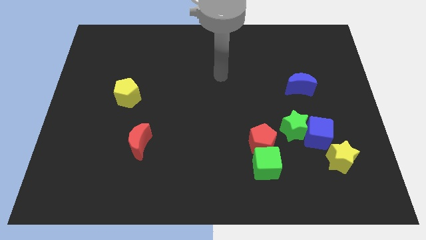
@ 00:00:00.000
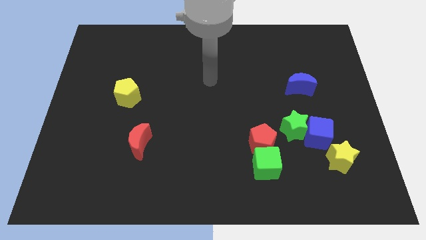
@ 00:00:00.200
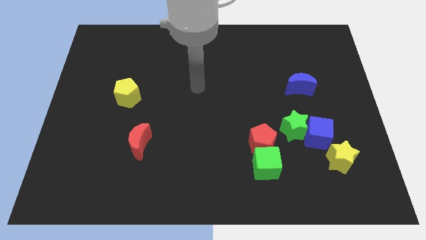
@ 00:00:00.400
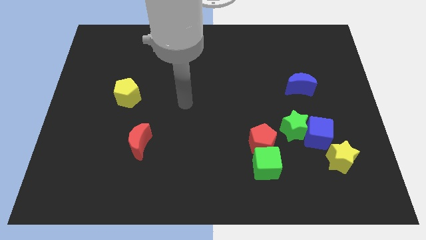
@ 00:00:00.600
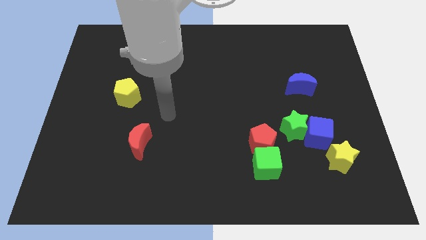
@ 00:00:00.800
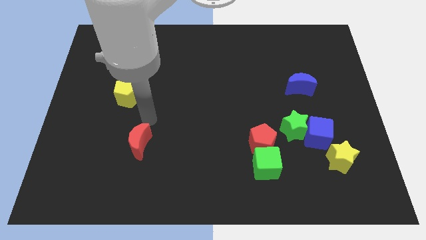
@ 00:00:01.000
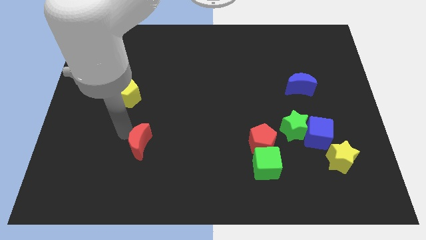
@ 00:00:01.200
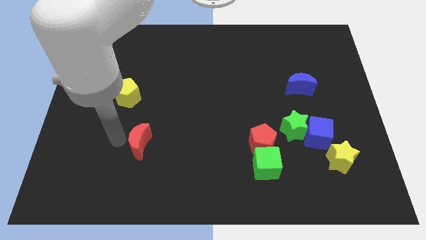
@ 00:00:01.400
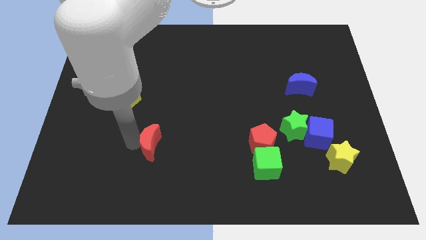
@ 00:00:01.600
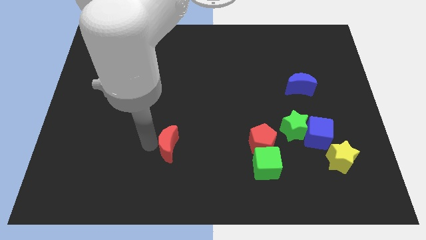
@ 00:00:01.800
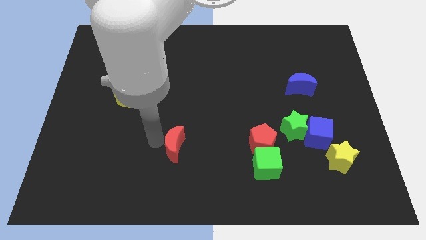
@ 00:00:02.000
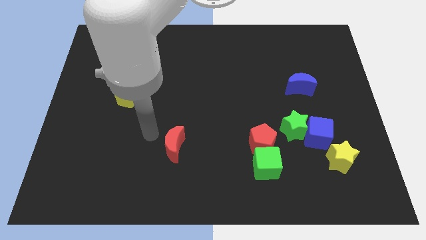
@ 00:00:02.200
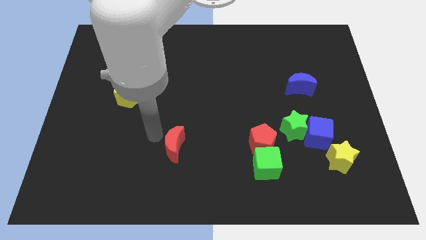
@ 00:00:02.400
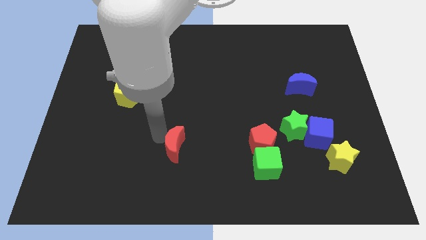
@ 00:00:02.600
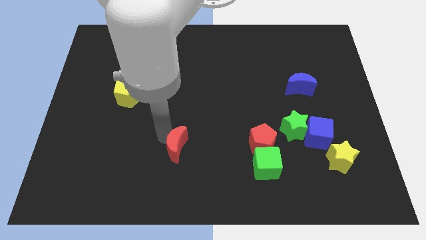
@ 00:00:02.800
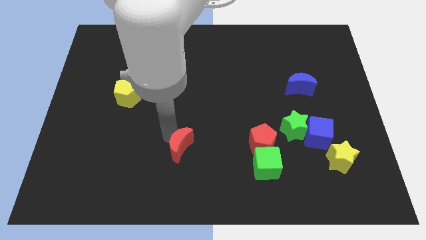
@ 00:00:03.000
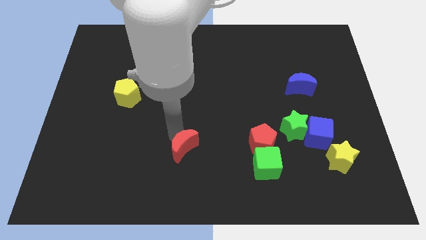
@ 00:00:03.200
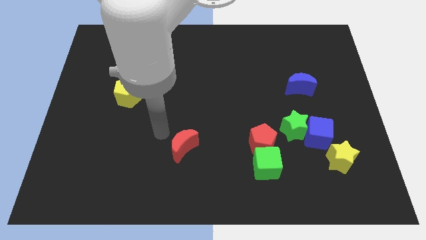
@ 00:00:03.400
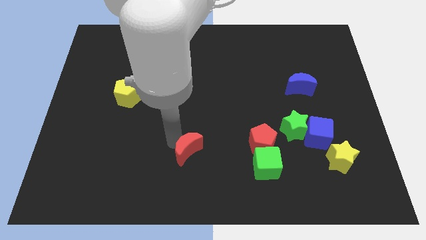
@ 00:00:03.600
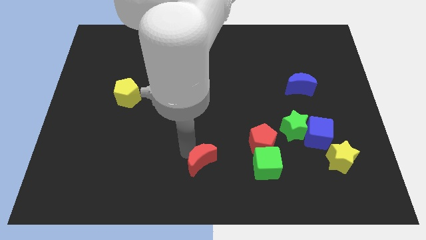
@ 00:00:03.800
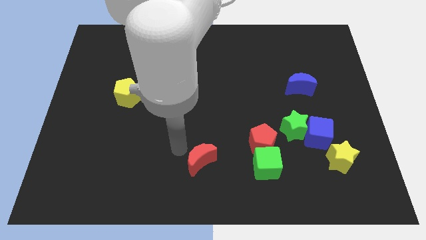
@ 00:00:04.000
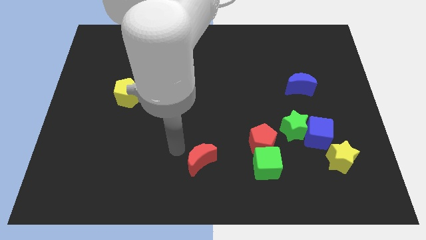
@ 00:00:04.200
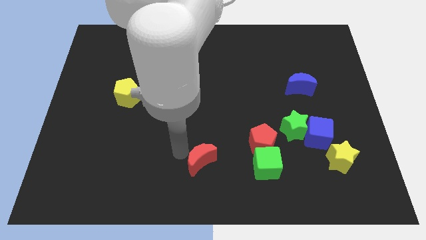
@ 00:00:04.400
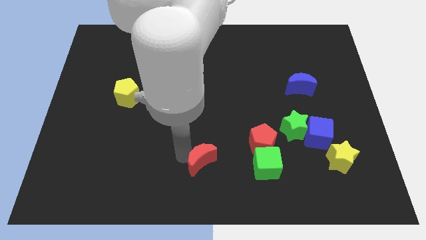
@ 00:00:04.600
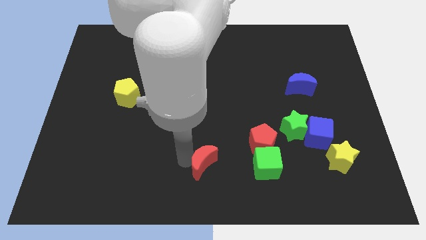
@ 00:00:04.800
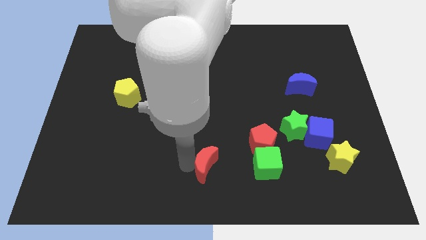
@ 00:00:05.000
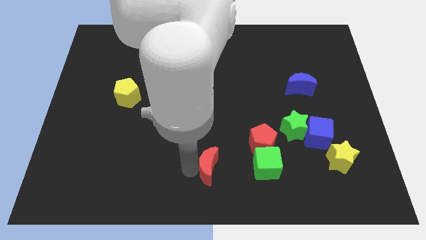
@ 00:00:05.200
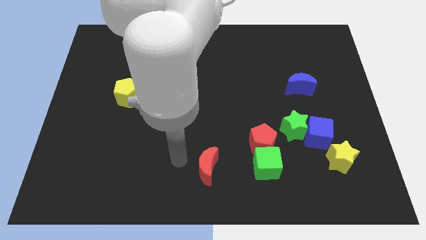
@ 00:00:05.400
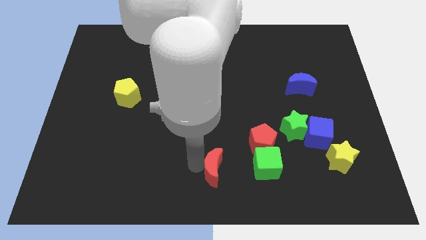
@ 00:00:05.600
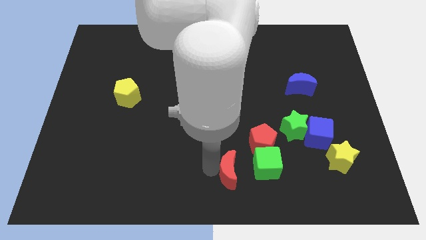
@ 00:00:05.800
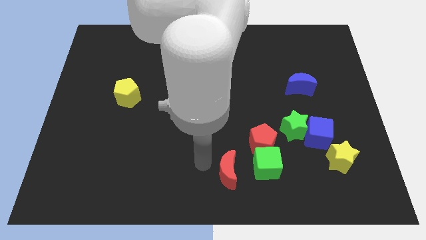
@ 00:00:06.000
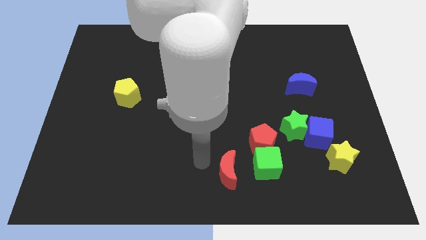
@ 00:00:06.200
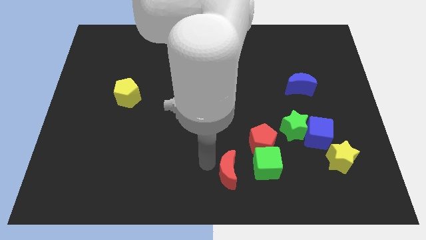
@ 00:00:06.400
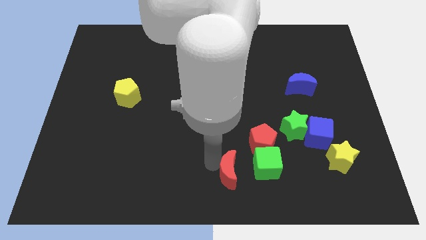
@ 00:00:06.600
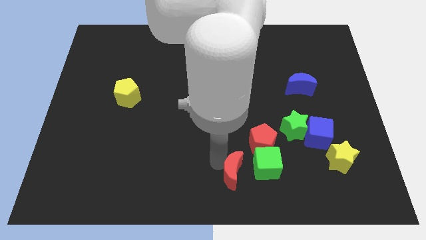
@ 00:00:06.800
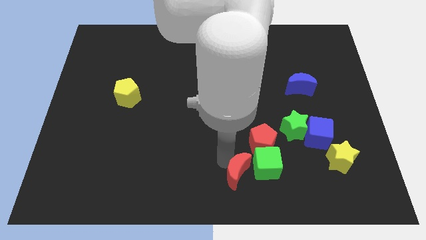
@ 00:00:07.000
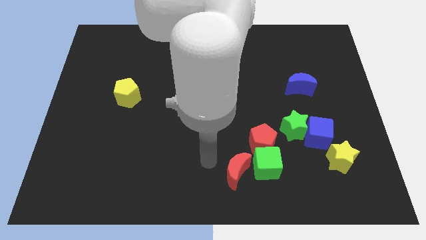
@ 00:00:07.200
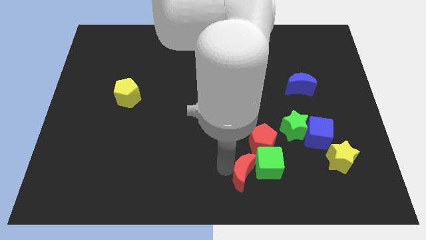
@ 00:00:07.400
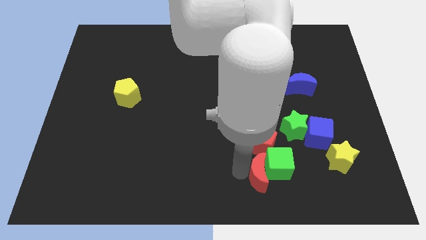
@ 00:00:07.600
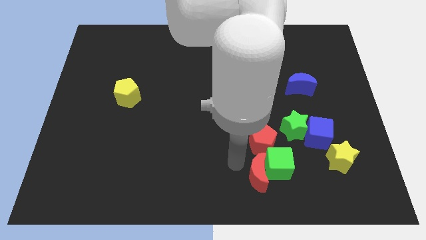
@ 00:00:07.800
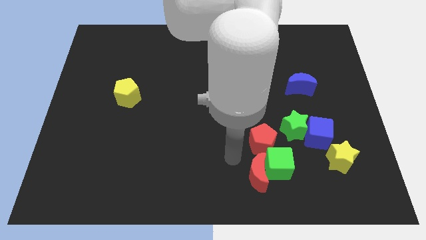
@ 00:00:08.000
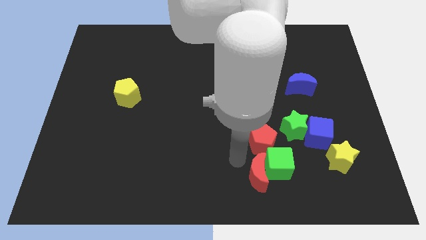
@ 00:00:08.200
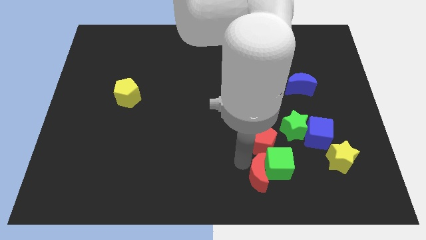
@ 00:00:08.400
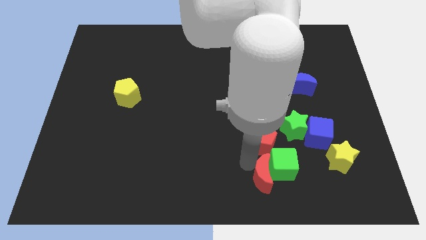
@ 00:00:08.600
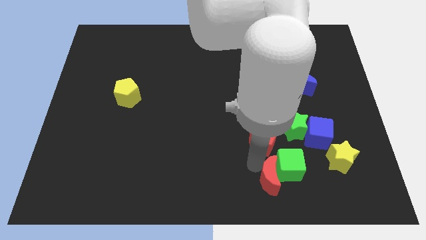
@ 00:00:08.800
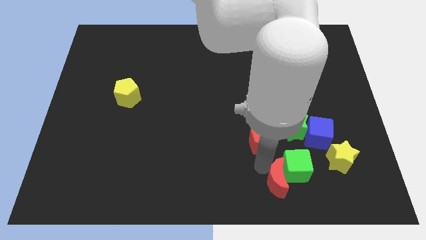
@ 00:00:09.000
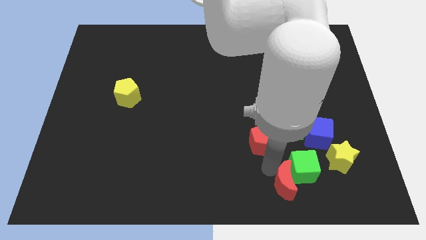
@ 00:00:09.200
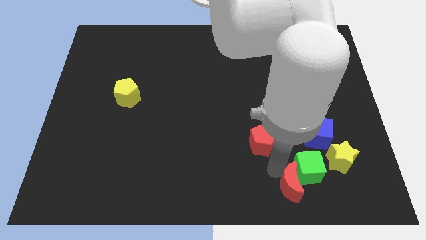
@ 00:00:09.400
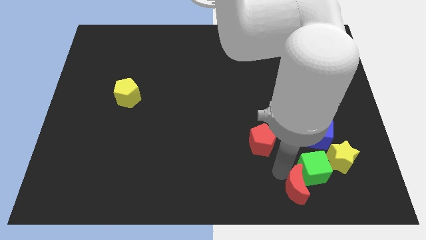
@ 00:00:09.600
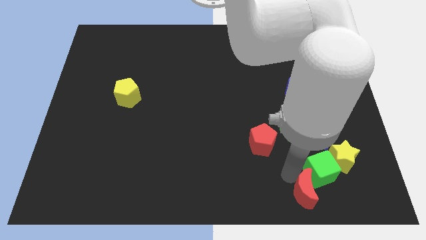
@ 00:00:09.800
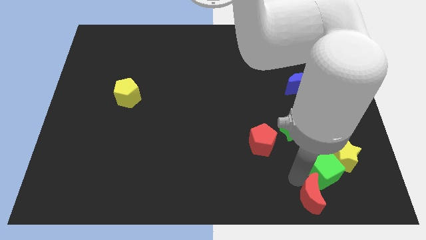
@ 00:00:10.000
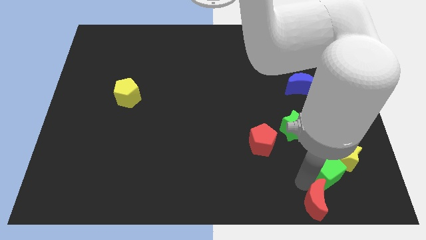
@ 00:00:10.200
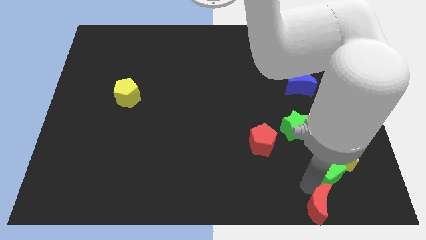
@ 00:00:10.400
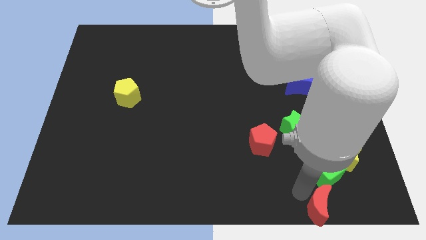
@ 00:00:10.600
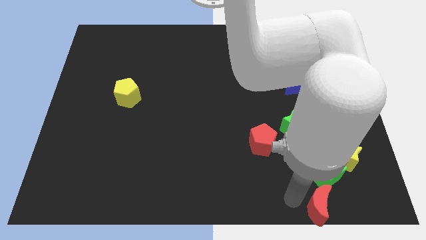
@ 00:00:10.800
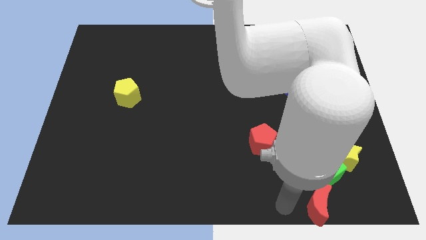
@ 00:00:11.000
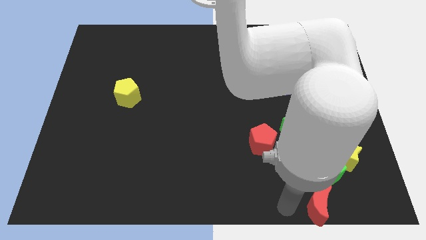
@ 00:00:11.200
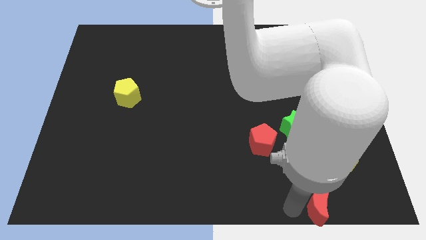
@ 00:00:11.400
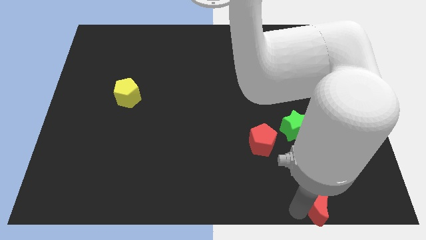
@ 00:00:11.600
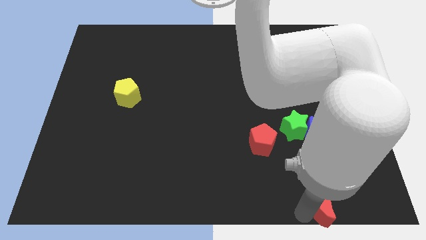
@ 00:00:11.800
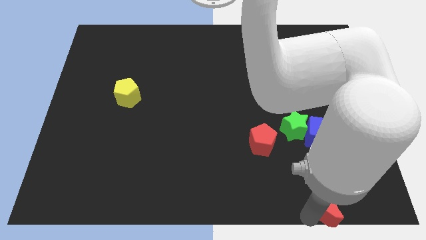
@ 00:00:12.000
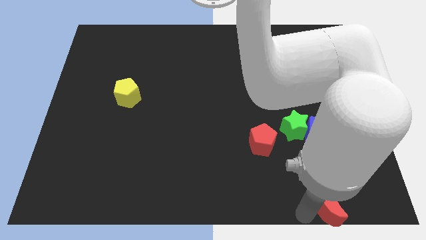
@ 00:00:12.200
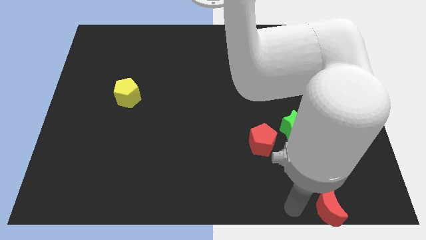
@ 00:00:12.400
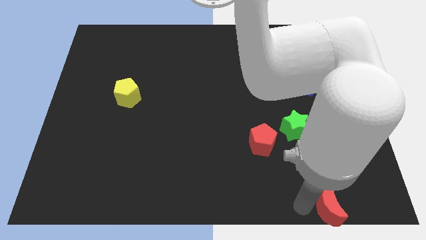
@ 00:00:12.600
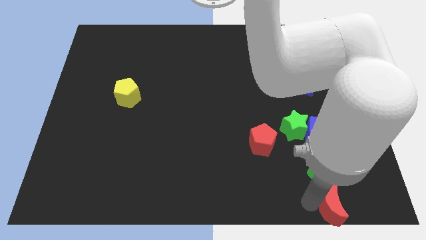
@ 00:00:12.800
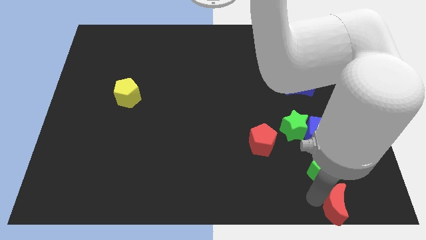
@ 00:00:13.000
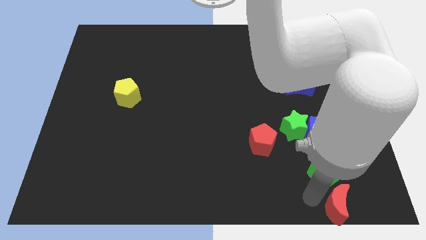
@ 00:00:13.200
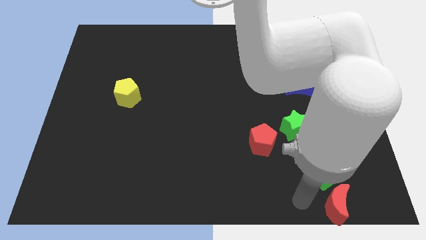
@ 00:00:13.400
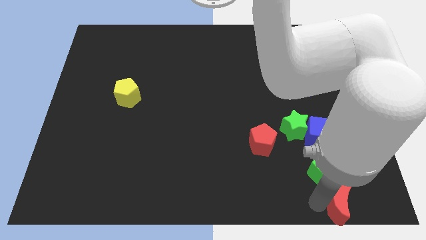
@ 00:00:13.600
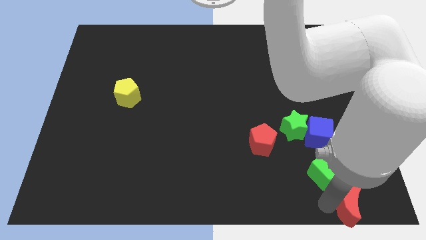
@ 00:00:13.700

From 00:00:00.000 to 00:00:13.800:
put the red moon to the lower right corner

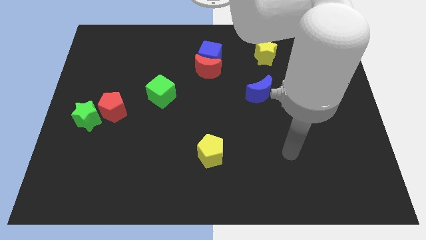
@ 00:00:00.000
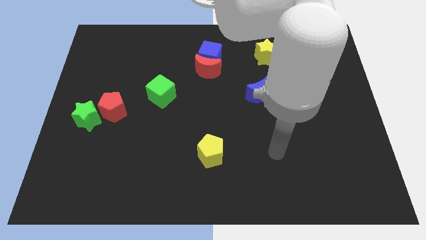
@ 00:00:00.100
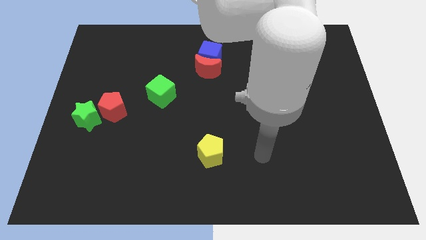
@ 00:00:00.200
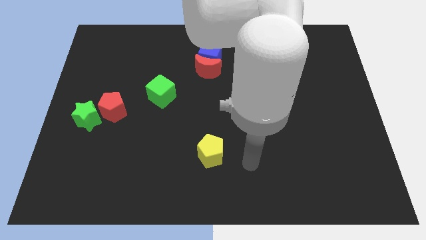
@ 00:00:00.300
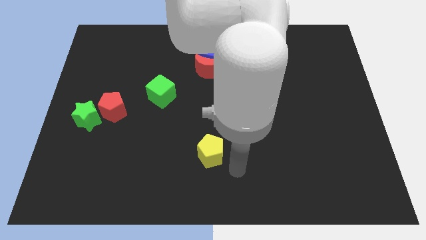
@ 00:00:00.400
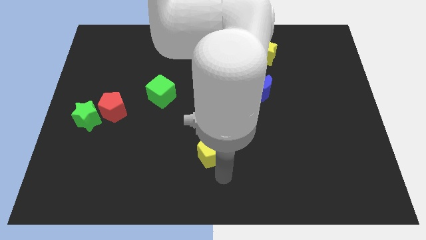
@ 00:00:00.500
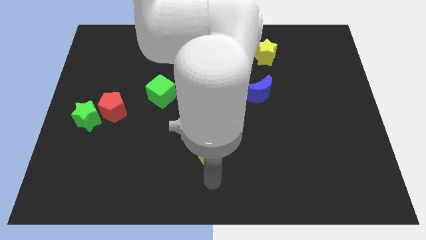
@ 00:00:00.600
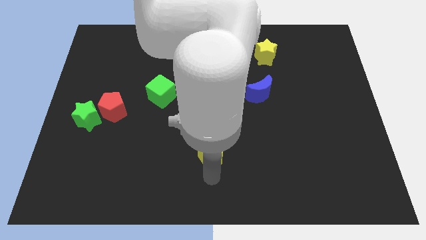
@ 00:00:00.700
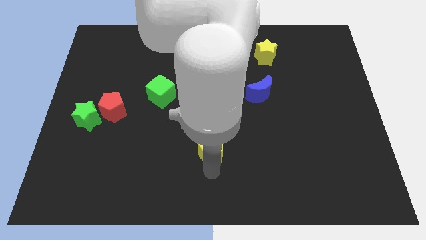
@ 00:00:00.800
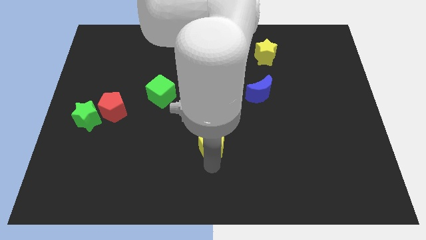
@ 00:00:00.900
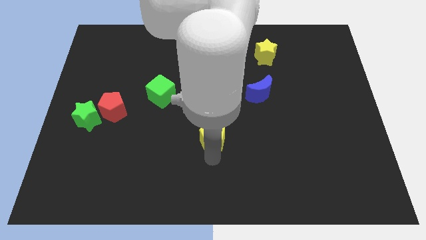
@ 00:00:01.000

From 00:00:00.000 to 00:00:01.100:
put the yellow pentagon to the center
